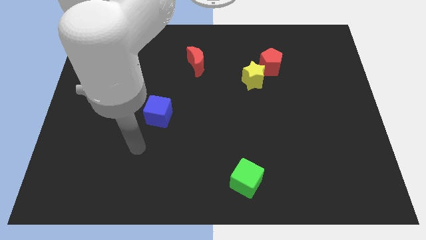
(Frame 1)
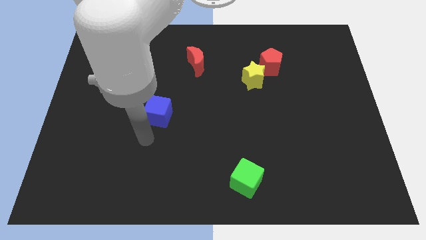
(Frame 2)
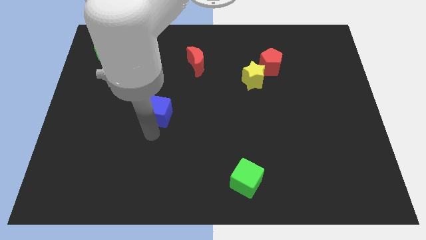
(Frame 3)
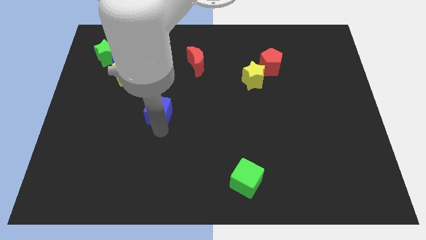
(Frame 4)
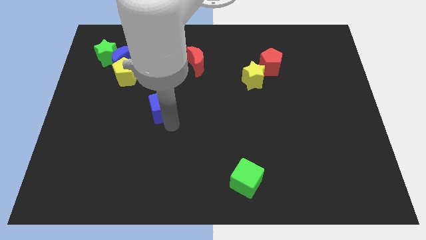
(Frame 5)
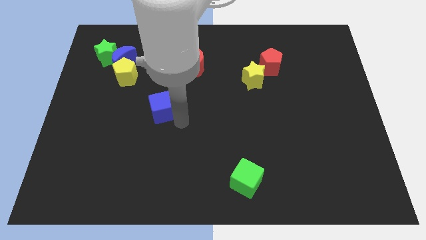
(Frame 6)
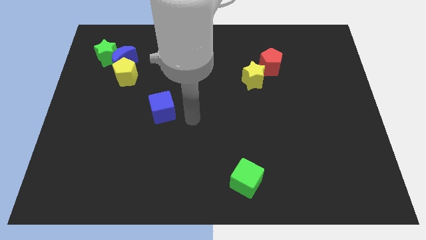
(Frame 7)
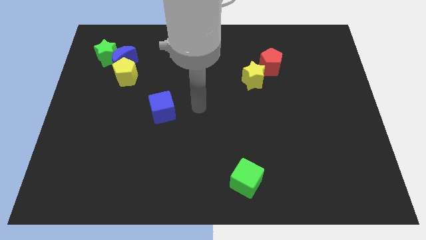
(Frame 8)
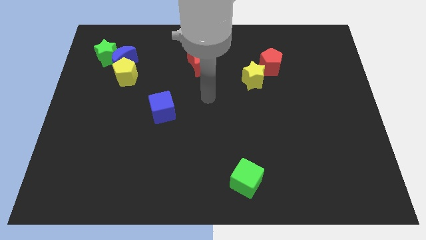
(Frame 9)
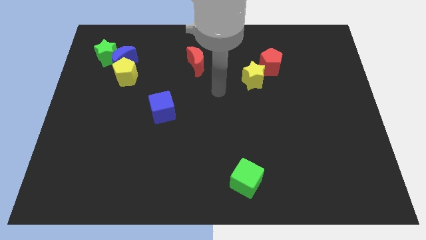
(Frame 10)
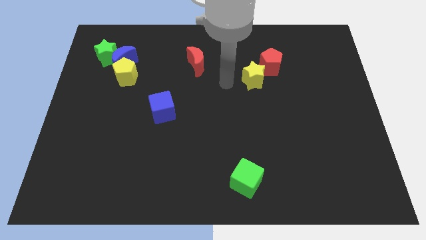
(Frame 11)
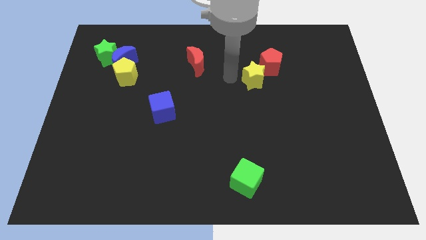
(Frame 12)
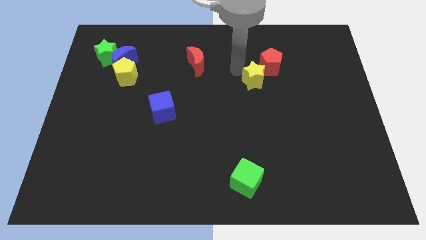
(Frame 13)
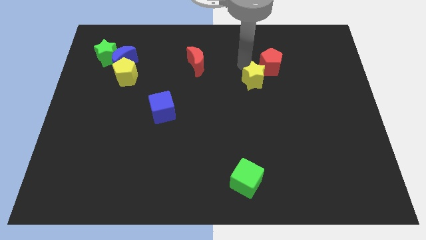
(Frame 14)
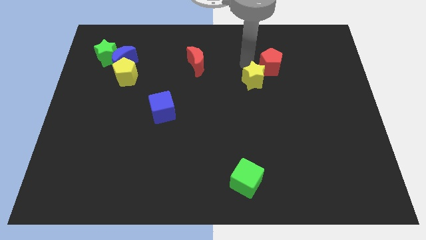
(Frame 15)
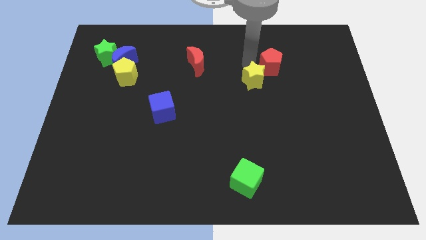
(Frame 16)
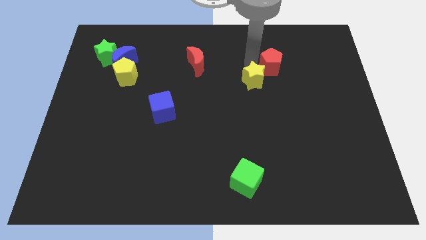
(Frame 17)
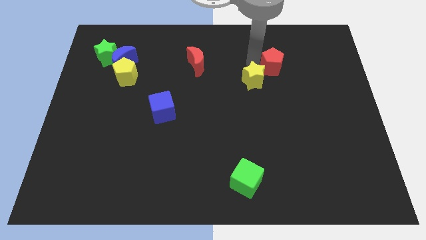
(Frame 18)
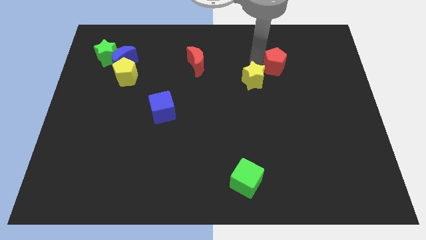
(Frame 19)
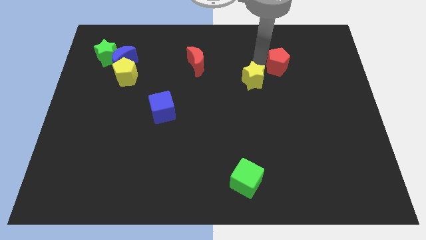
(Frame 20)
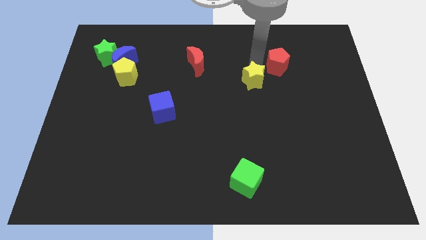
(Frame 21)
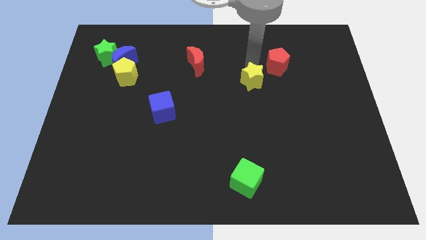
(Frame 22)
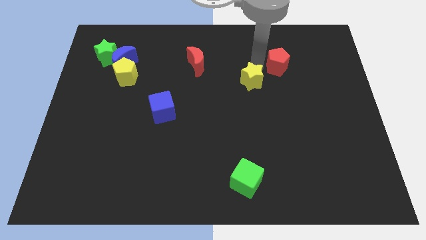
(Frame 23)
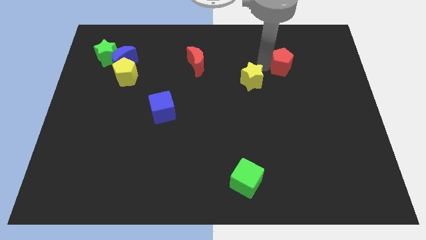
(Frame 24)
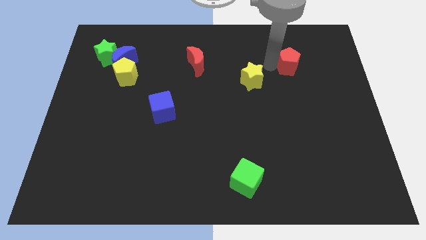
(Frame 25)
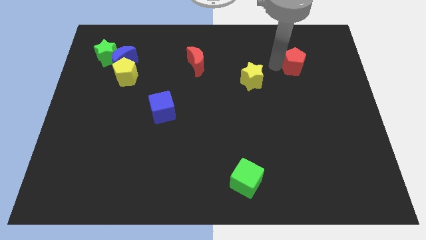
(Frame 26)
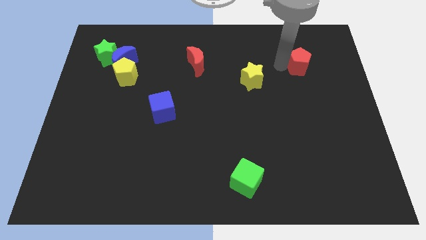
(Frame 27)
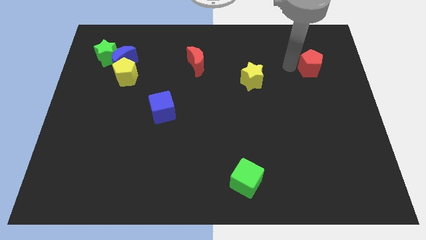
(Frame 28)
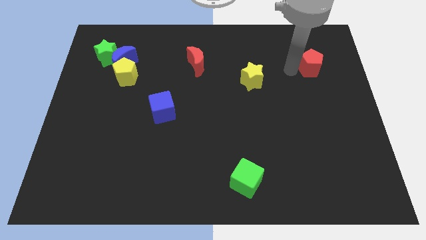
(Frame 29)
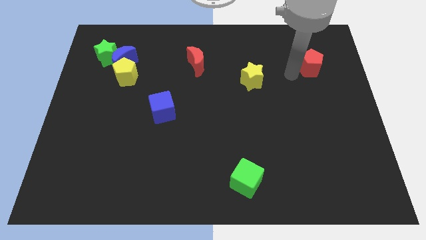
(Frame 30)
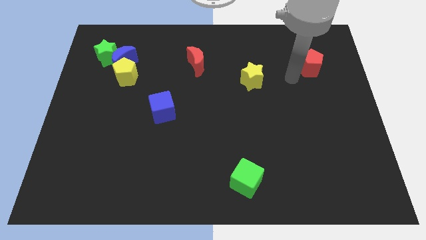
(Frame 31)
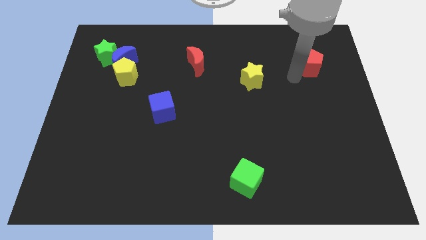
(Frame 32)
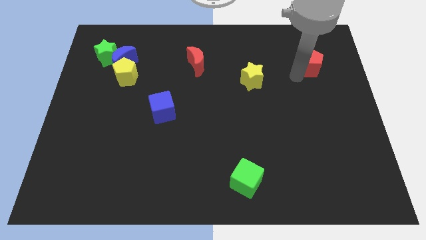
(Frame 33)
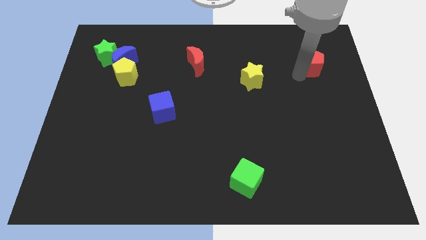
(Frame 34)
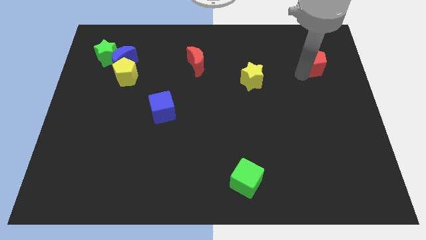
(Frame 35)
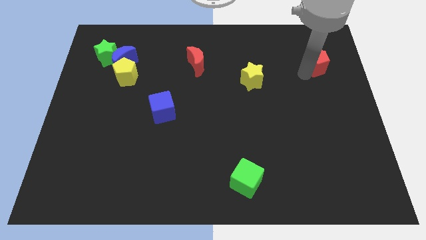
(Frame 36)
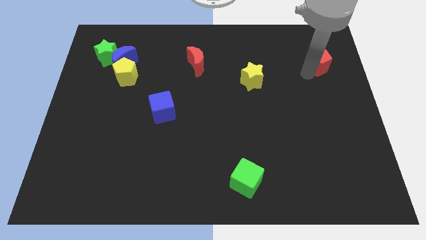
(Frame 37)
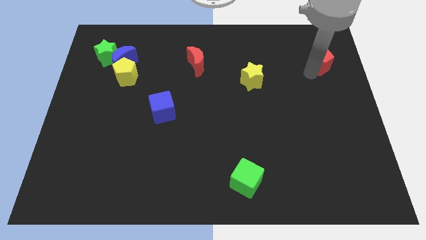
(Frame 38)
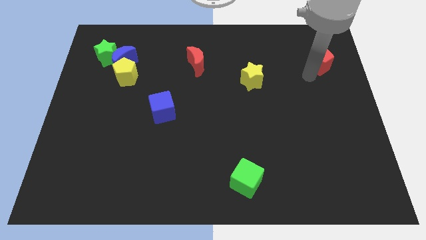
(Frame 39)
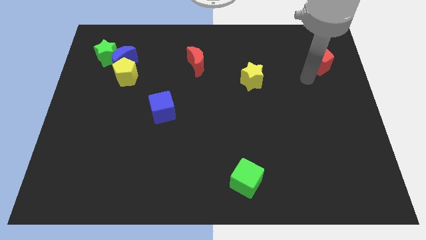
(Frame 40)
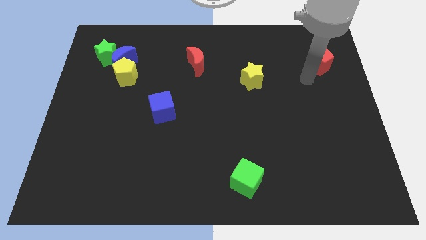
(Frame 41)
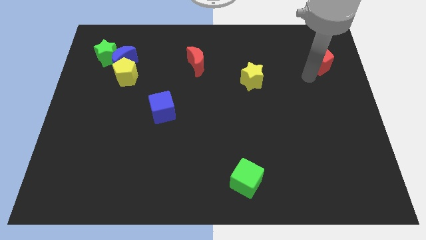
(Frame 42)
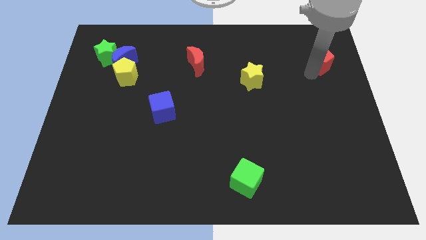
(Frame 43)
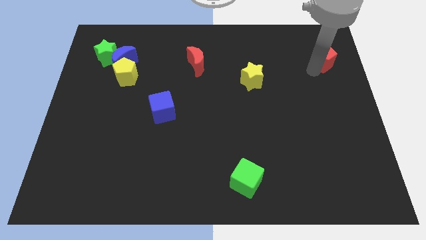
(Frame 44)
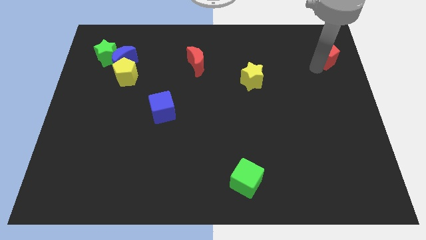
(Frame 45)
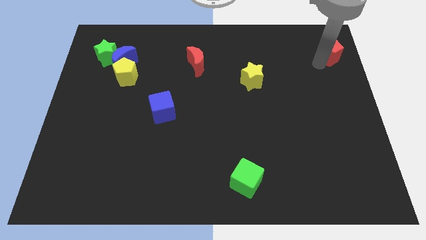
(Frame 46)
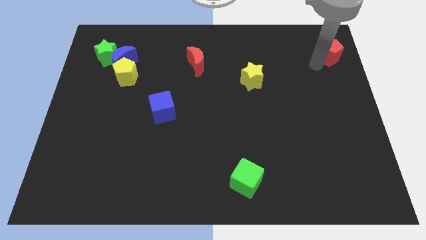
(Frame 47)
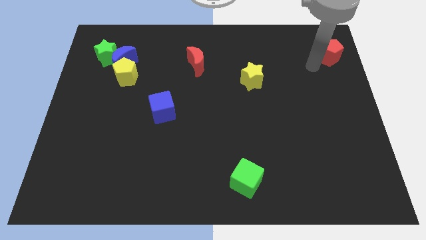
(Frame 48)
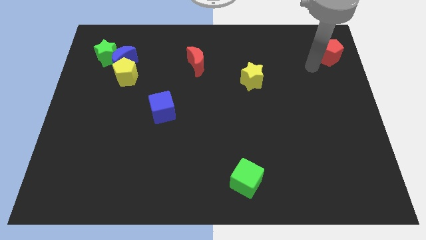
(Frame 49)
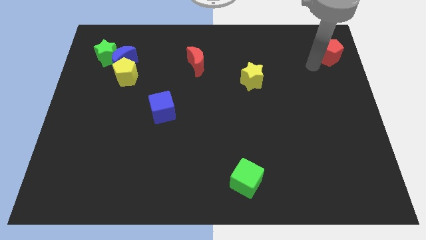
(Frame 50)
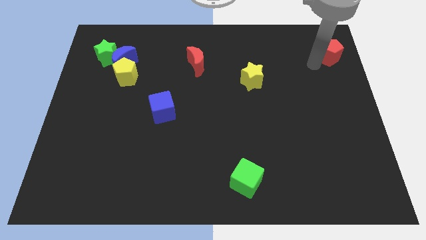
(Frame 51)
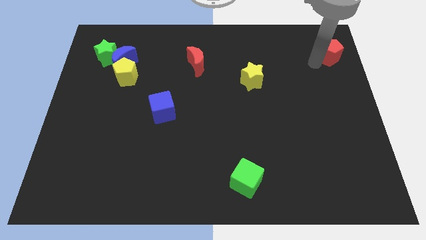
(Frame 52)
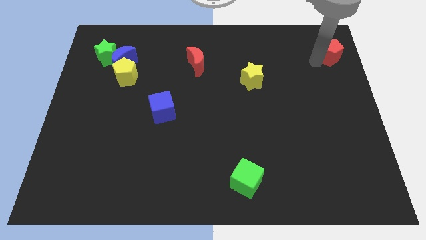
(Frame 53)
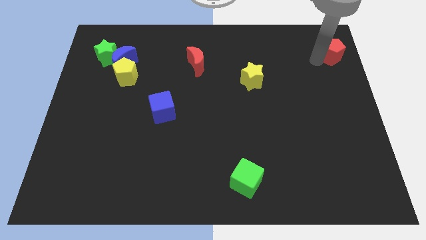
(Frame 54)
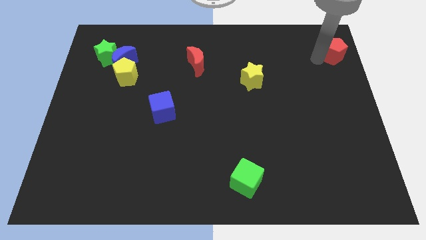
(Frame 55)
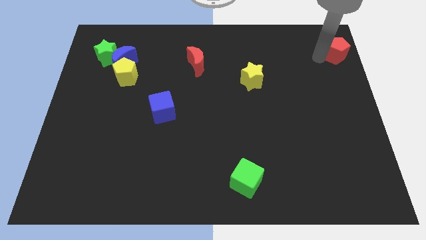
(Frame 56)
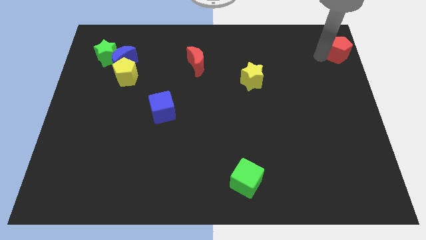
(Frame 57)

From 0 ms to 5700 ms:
slide the red pentagon to the upper right corner

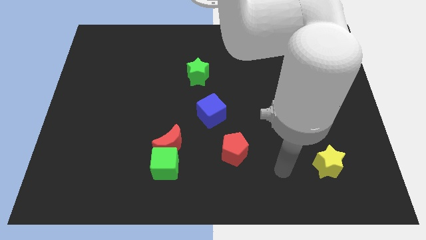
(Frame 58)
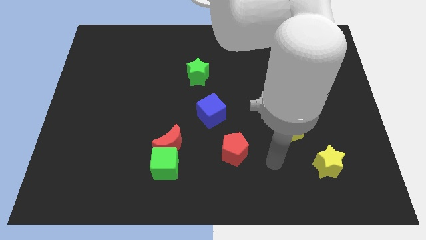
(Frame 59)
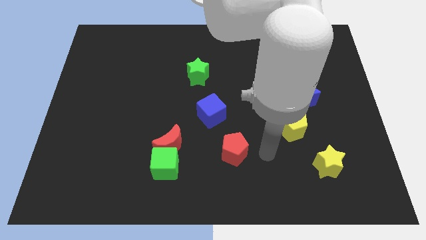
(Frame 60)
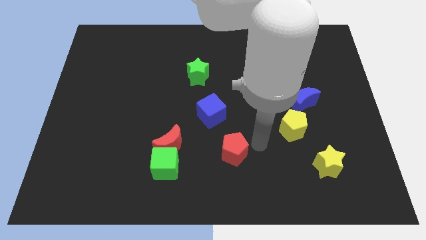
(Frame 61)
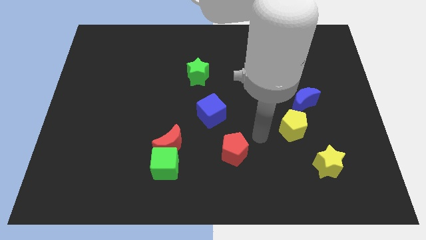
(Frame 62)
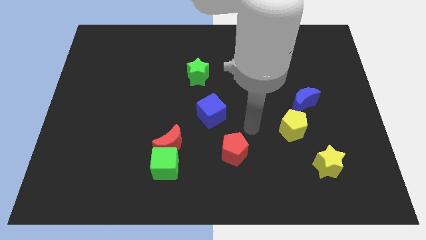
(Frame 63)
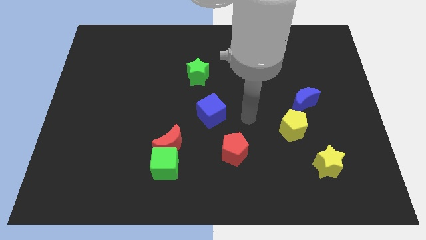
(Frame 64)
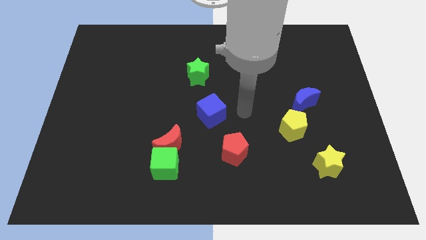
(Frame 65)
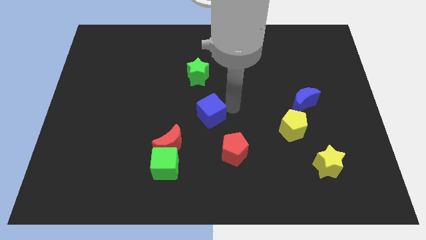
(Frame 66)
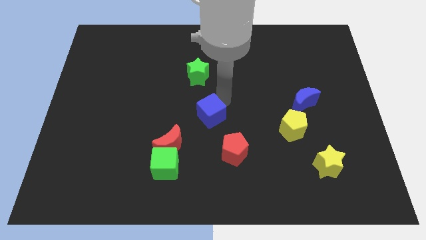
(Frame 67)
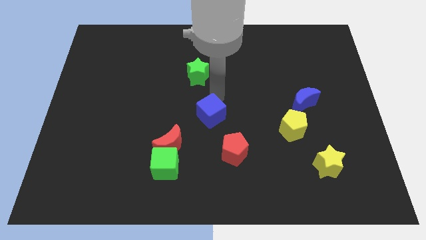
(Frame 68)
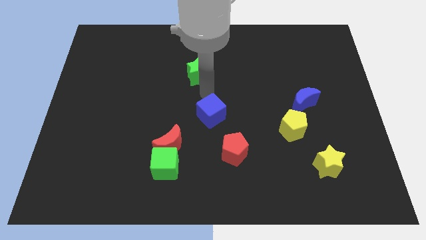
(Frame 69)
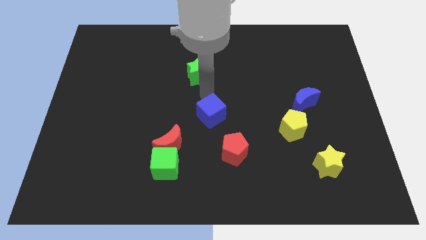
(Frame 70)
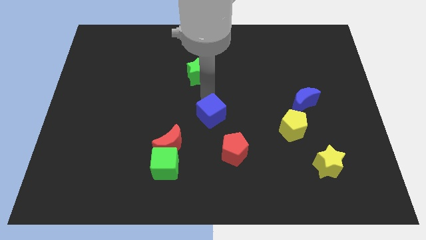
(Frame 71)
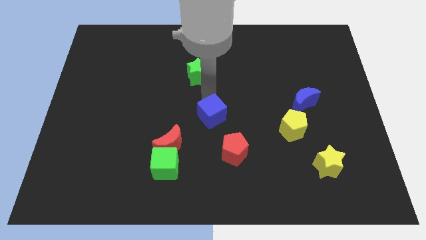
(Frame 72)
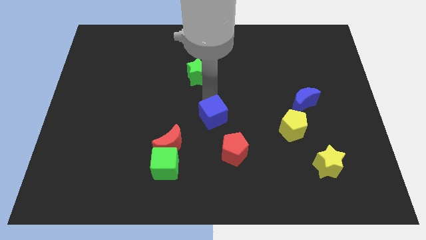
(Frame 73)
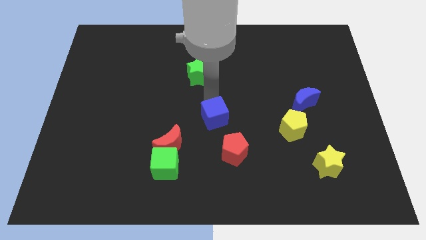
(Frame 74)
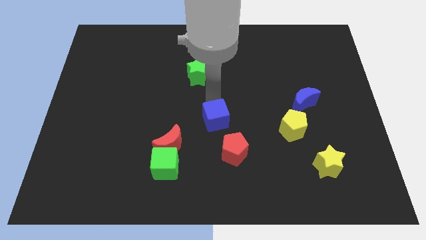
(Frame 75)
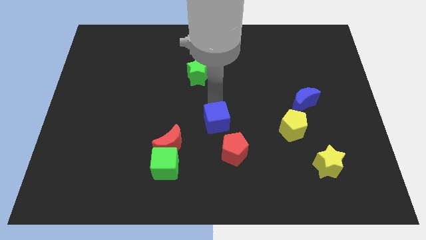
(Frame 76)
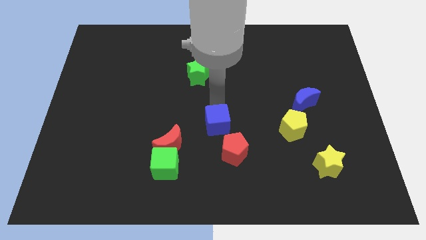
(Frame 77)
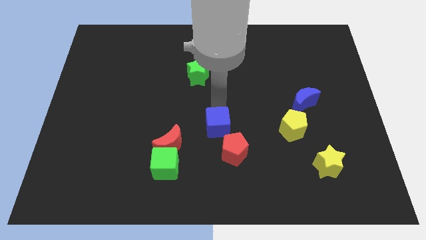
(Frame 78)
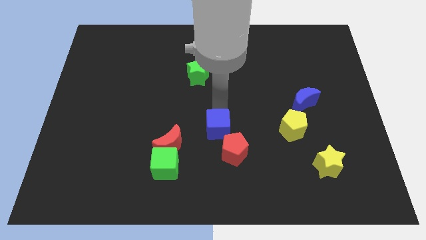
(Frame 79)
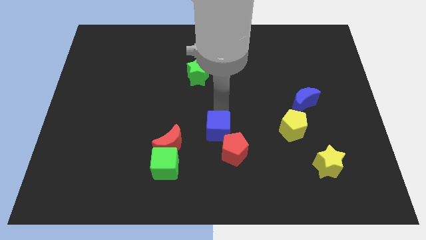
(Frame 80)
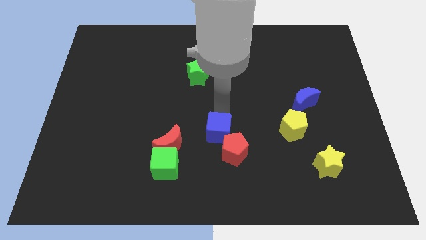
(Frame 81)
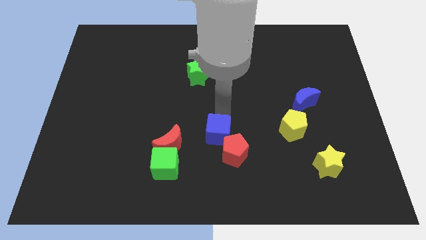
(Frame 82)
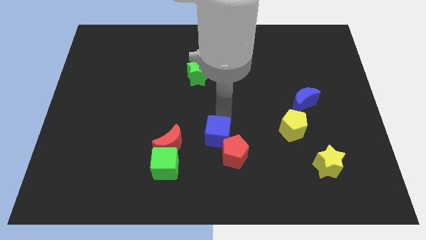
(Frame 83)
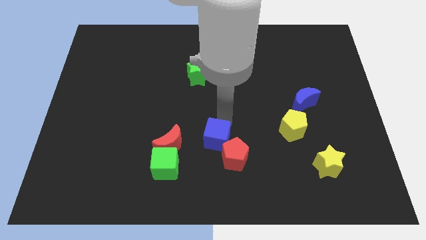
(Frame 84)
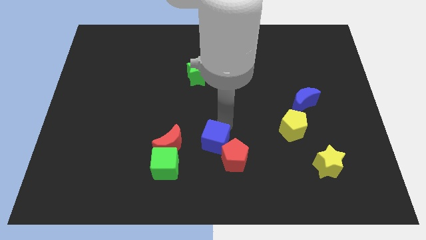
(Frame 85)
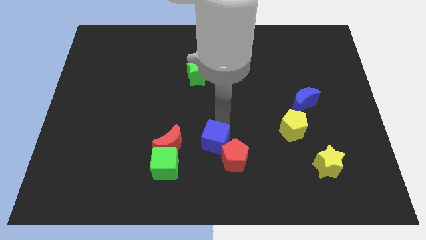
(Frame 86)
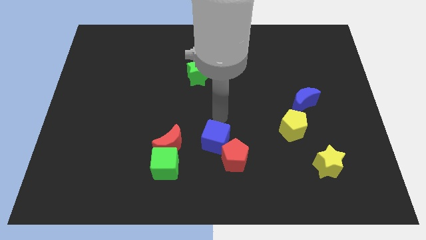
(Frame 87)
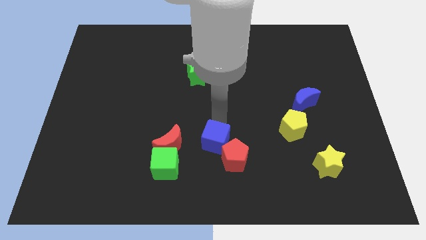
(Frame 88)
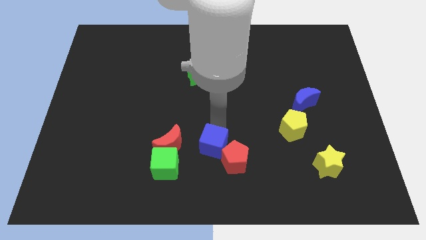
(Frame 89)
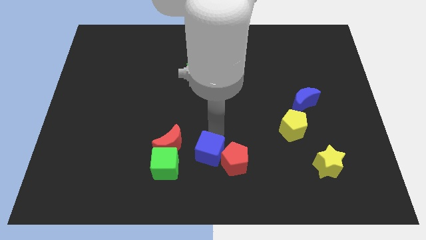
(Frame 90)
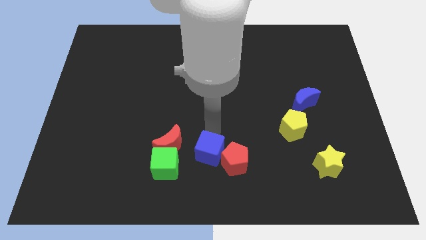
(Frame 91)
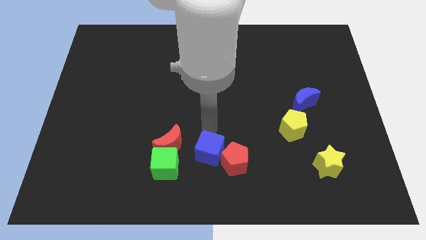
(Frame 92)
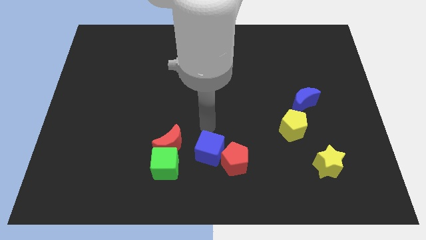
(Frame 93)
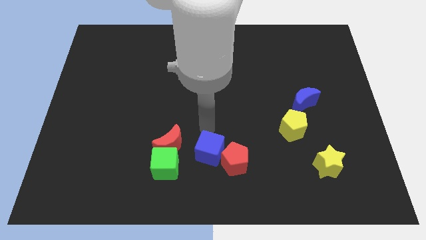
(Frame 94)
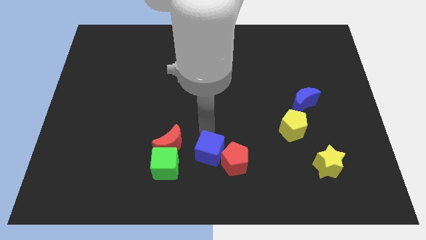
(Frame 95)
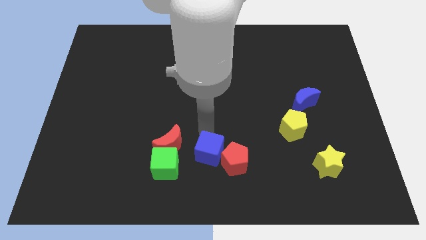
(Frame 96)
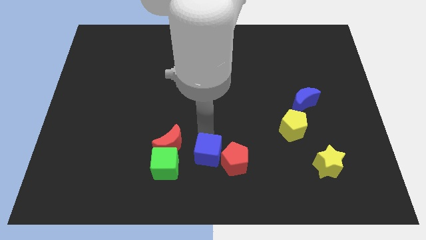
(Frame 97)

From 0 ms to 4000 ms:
move the blue cube to the bottom
